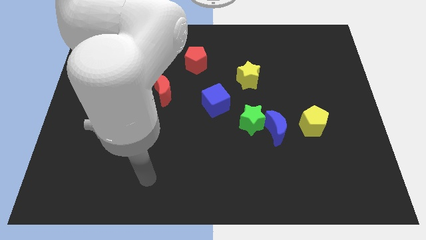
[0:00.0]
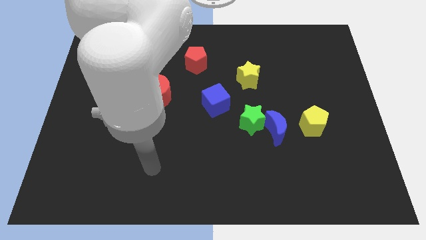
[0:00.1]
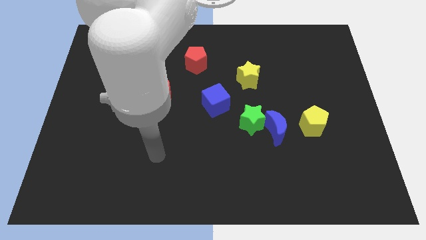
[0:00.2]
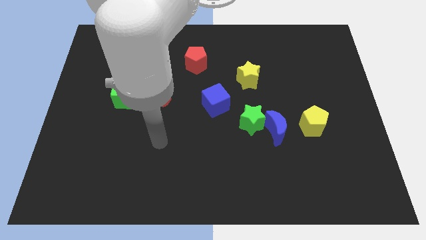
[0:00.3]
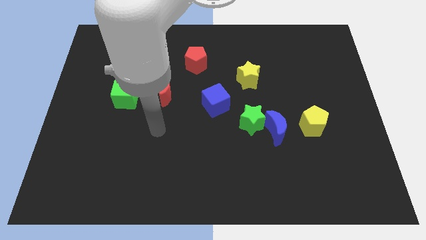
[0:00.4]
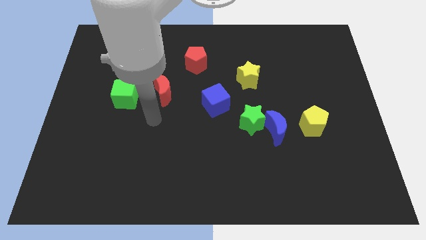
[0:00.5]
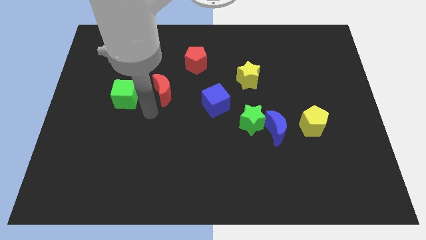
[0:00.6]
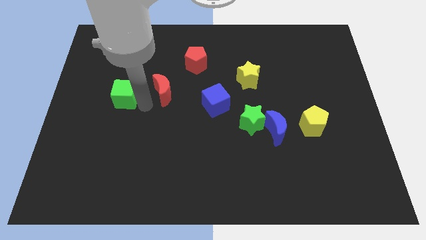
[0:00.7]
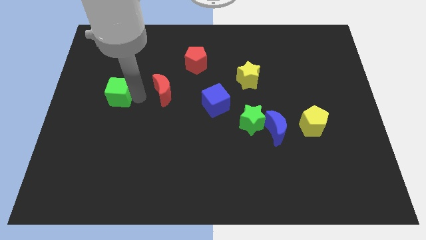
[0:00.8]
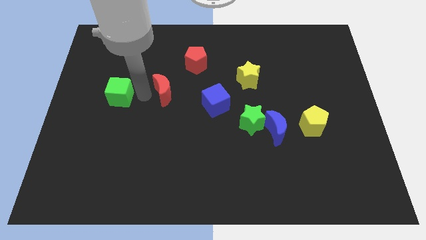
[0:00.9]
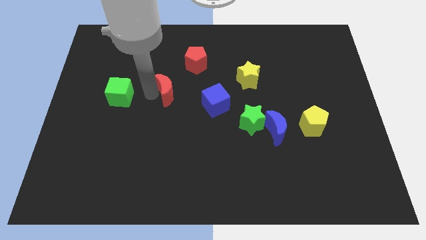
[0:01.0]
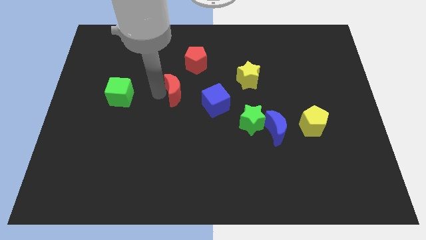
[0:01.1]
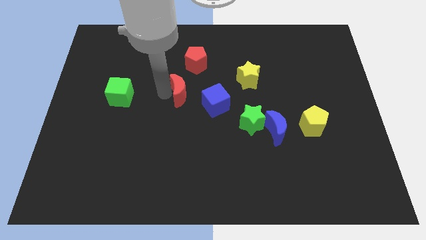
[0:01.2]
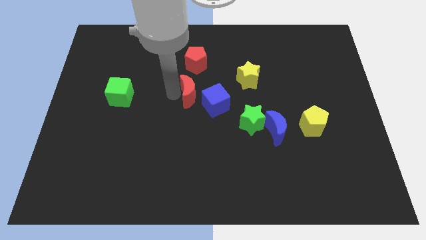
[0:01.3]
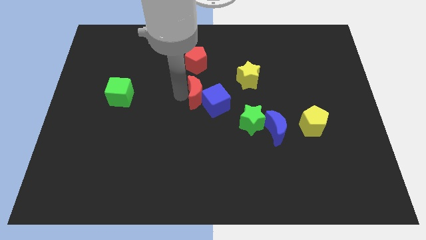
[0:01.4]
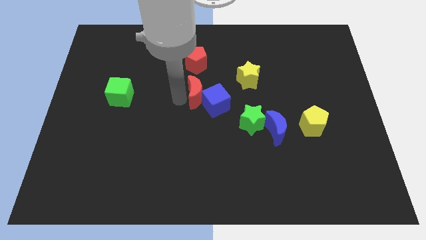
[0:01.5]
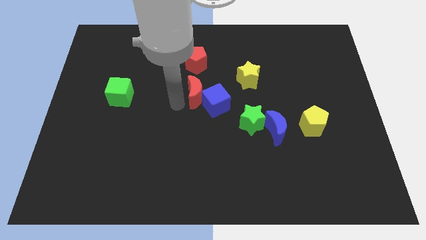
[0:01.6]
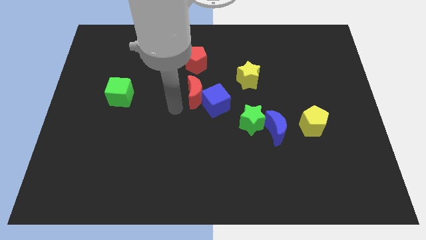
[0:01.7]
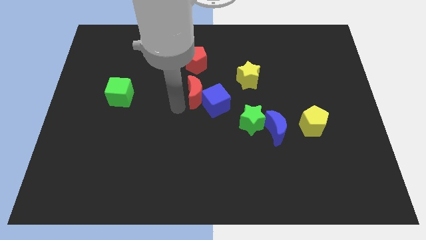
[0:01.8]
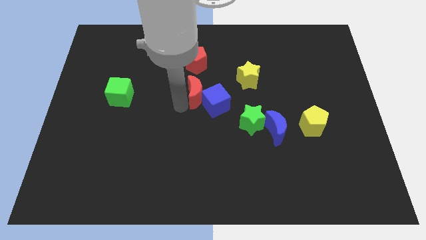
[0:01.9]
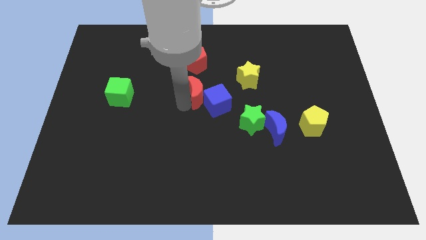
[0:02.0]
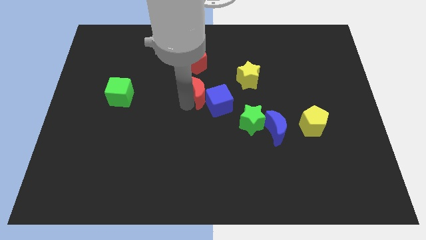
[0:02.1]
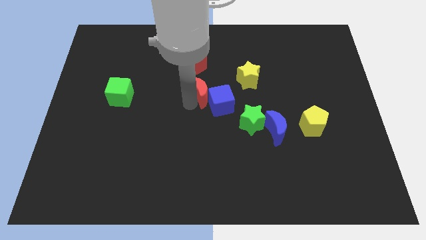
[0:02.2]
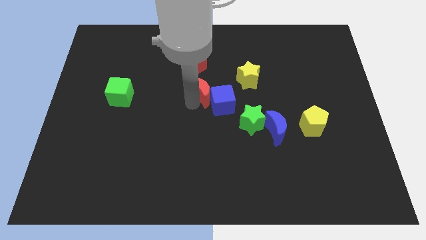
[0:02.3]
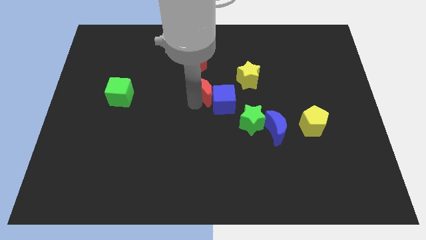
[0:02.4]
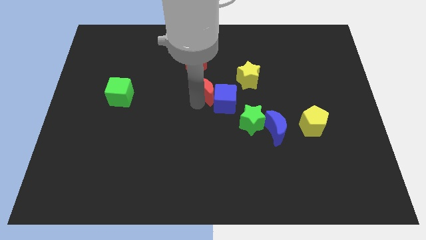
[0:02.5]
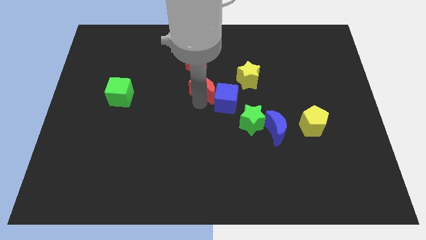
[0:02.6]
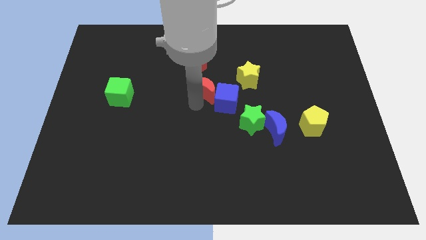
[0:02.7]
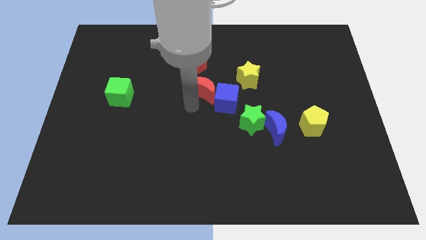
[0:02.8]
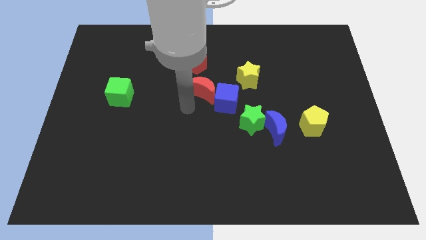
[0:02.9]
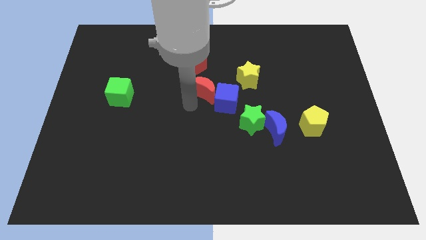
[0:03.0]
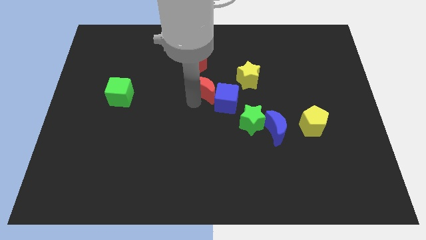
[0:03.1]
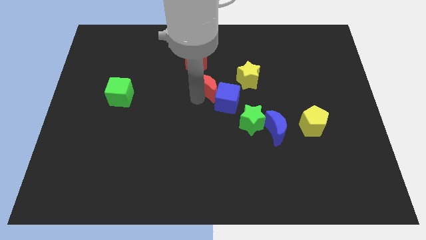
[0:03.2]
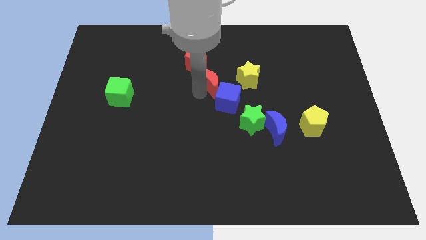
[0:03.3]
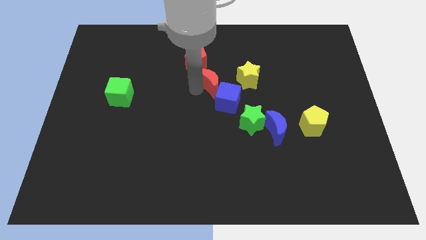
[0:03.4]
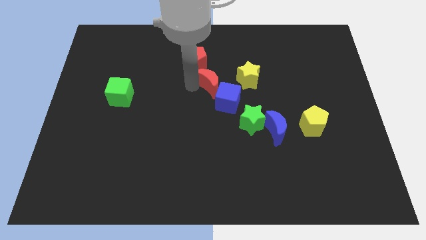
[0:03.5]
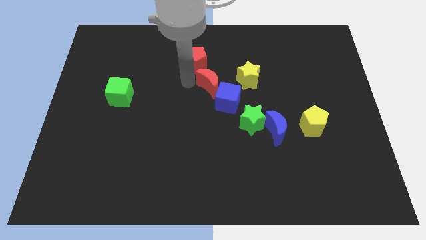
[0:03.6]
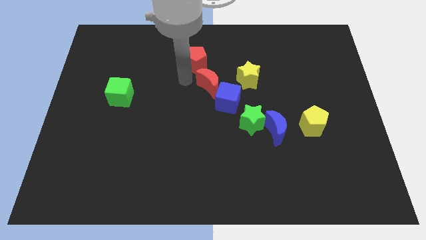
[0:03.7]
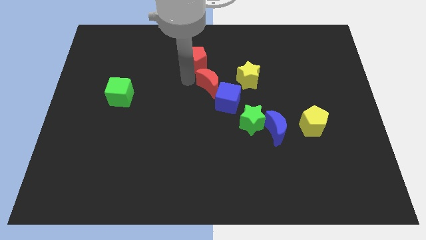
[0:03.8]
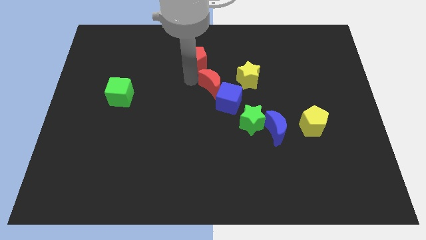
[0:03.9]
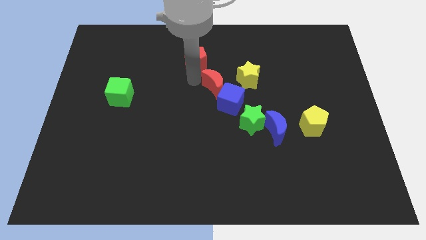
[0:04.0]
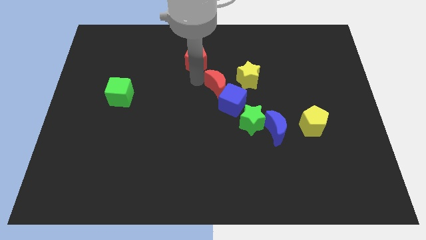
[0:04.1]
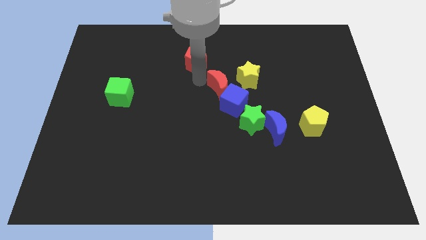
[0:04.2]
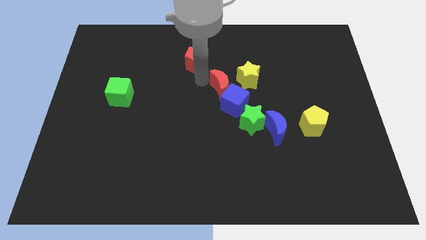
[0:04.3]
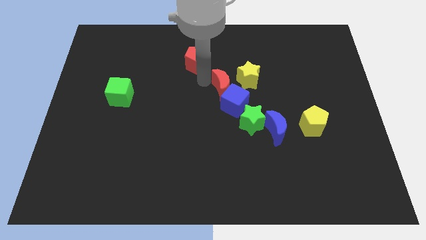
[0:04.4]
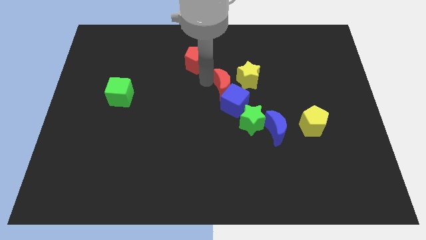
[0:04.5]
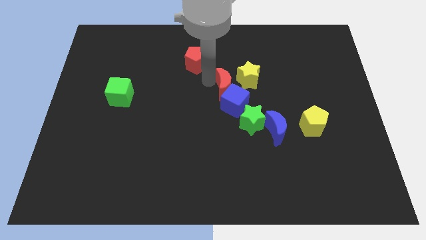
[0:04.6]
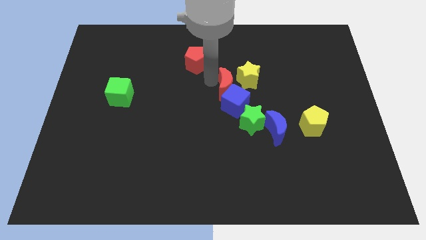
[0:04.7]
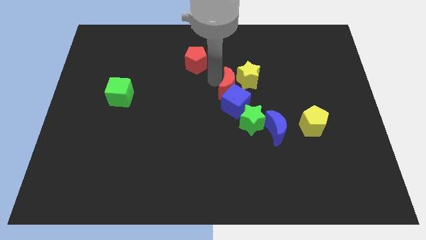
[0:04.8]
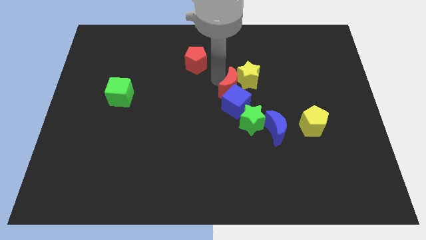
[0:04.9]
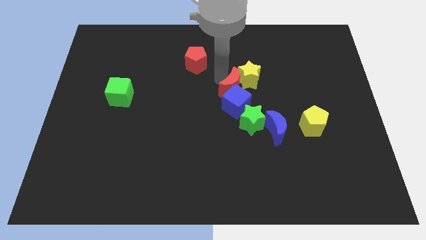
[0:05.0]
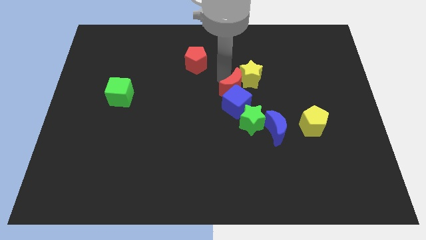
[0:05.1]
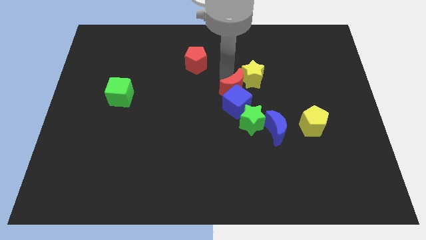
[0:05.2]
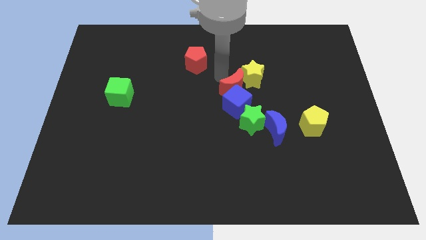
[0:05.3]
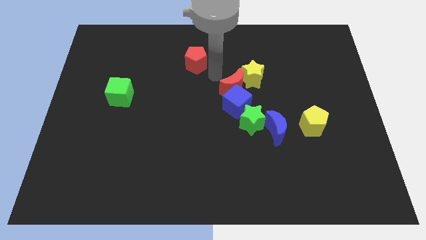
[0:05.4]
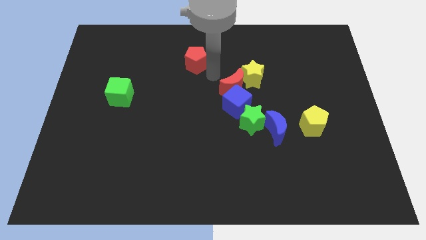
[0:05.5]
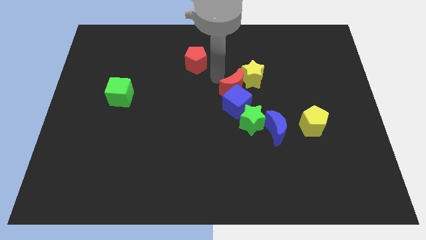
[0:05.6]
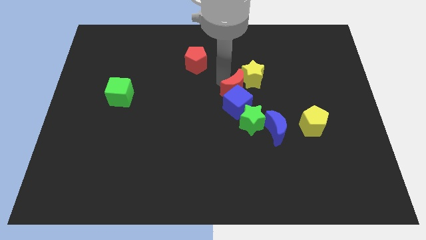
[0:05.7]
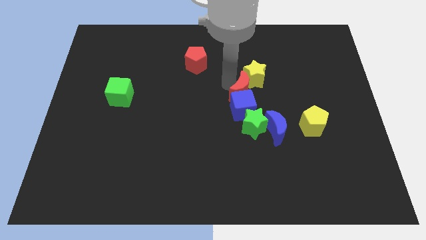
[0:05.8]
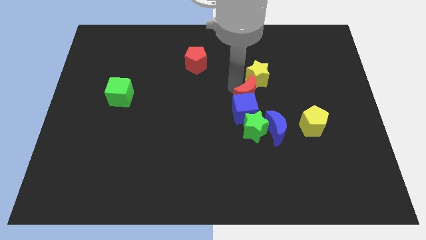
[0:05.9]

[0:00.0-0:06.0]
slide the red moon right

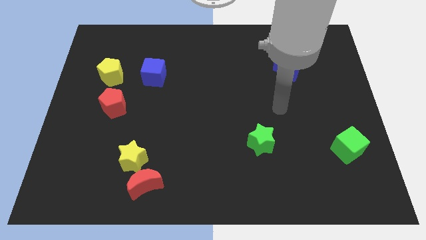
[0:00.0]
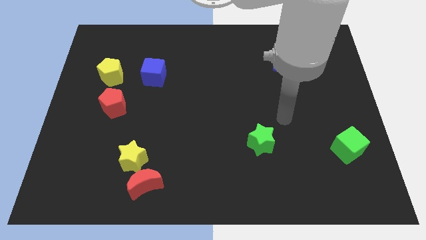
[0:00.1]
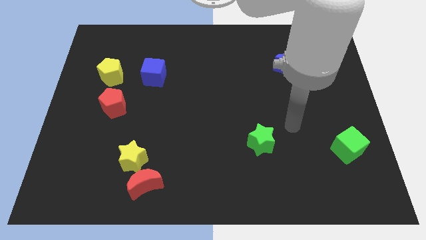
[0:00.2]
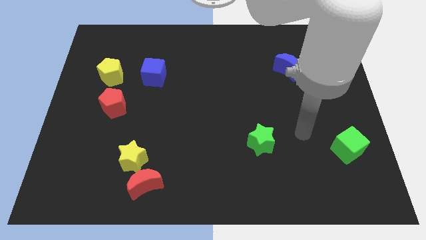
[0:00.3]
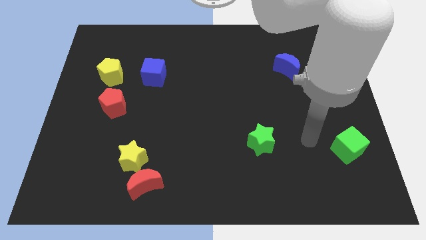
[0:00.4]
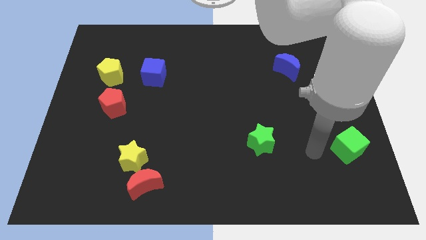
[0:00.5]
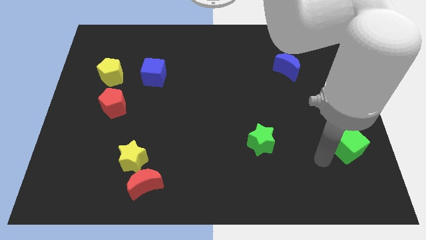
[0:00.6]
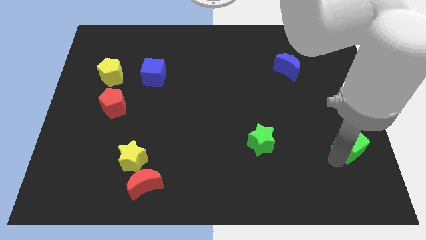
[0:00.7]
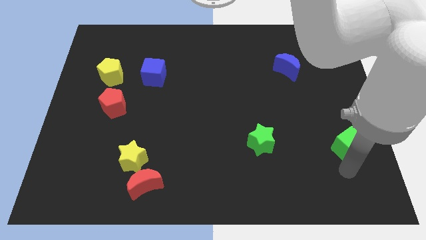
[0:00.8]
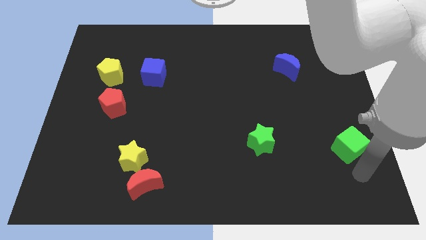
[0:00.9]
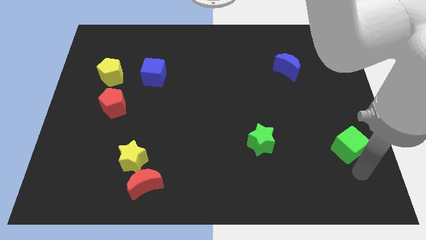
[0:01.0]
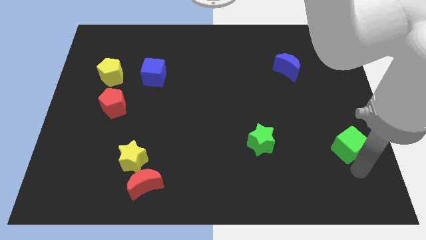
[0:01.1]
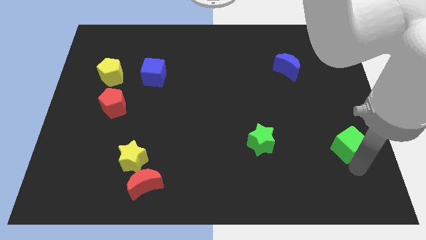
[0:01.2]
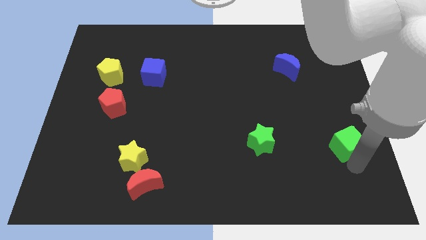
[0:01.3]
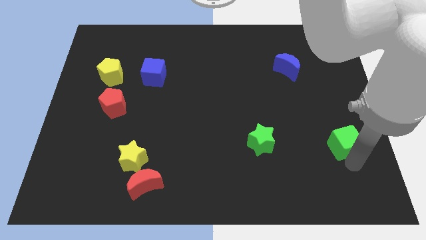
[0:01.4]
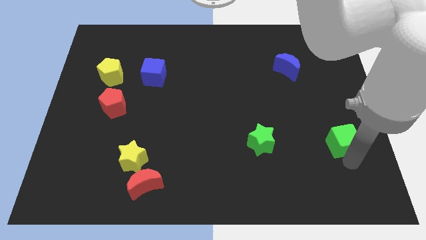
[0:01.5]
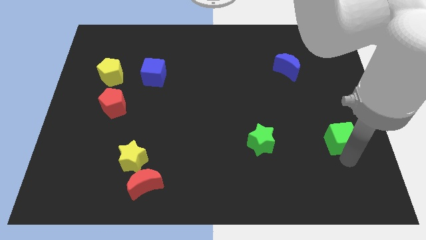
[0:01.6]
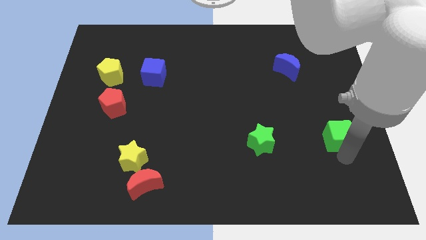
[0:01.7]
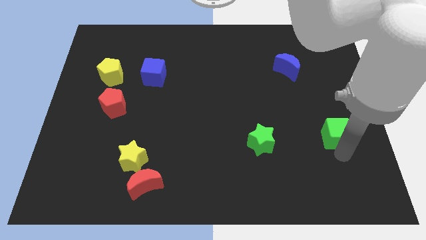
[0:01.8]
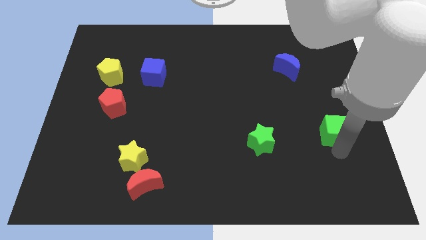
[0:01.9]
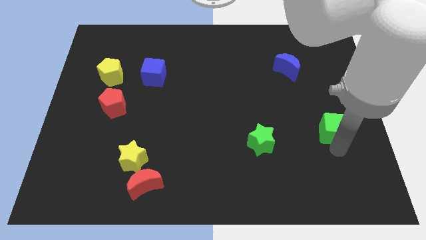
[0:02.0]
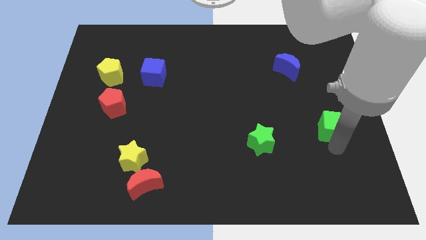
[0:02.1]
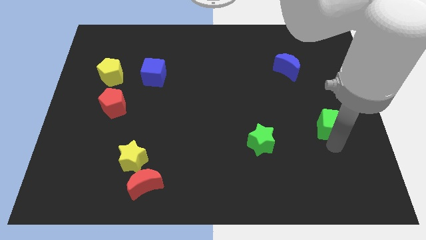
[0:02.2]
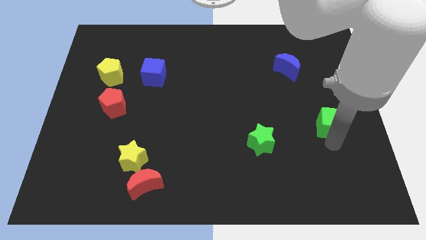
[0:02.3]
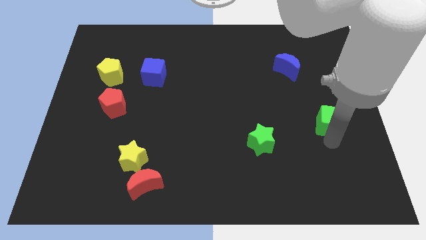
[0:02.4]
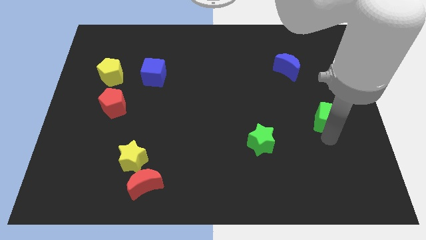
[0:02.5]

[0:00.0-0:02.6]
push the green cube up slightly
